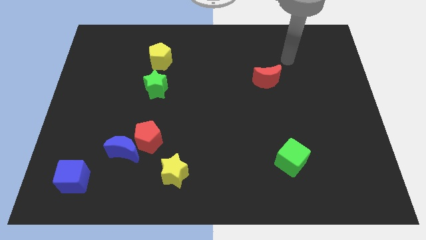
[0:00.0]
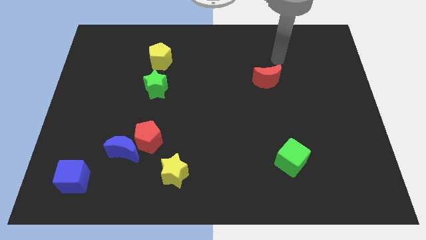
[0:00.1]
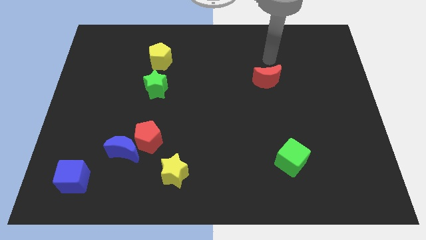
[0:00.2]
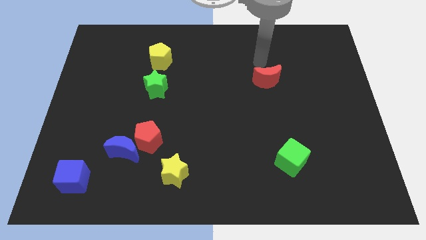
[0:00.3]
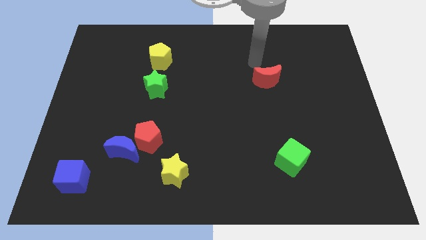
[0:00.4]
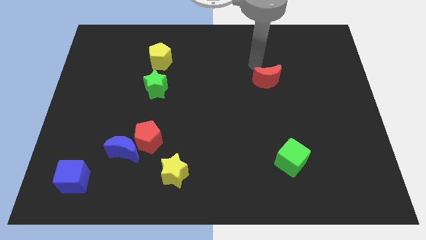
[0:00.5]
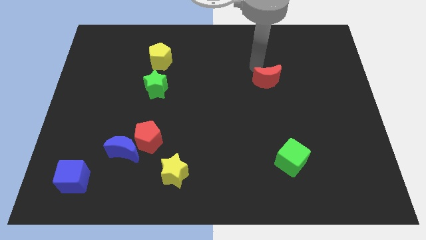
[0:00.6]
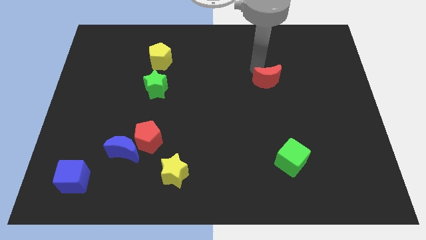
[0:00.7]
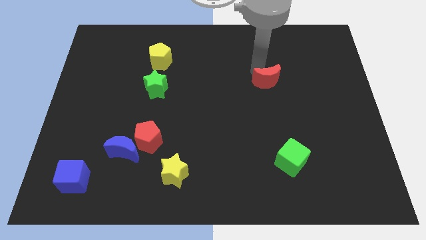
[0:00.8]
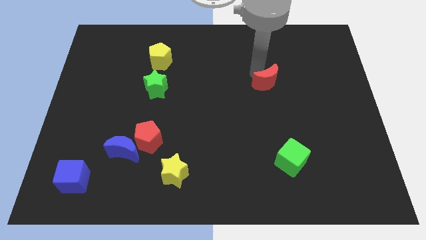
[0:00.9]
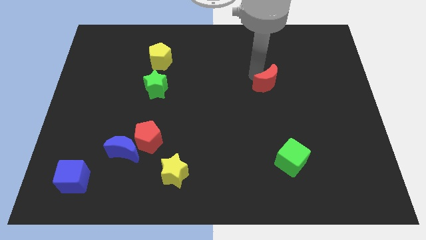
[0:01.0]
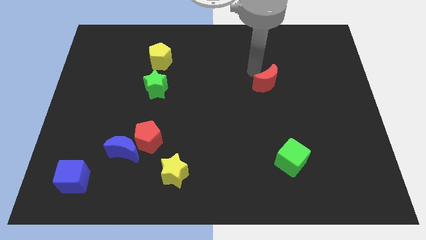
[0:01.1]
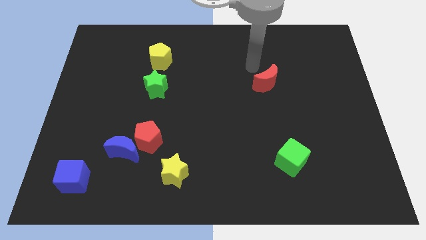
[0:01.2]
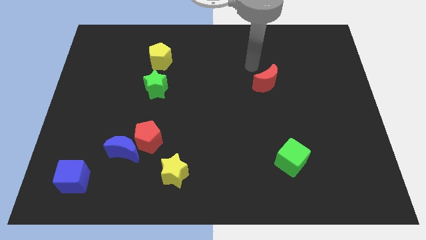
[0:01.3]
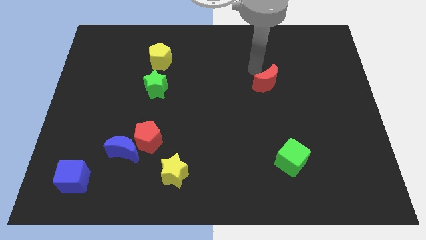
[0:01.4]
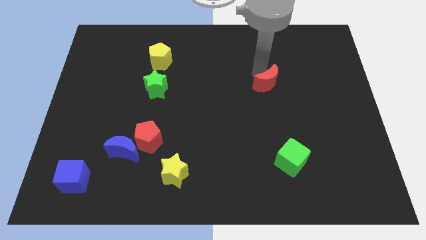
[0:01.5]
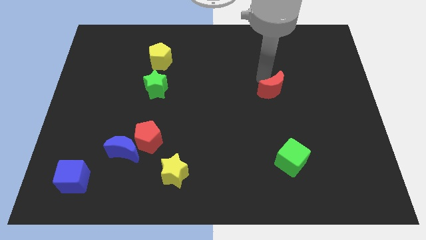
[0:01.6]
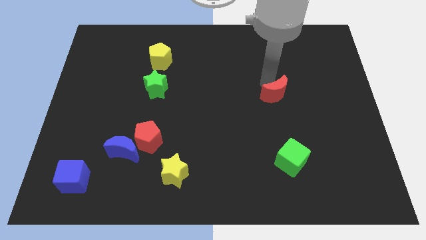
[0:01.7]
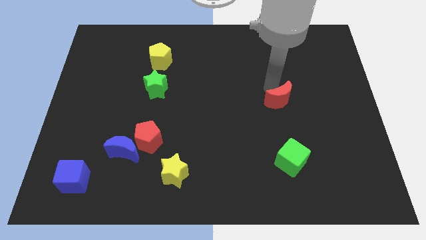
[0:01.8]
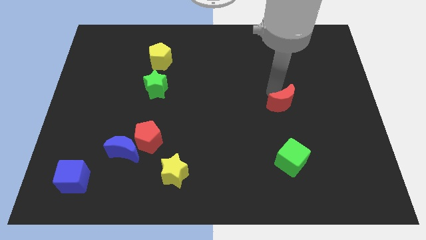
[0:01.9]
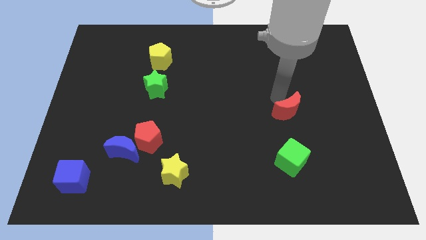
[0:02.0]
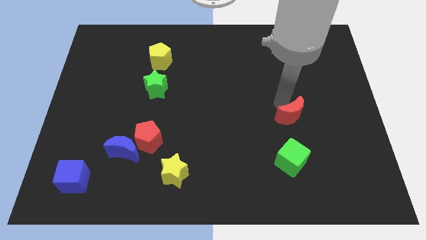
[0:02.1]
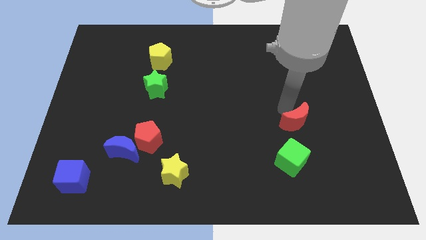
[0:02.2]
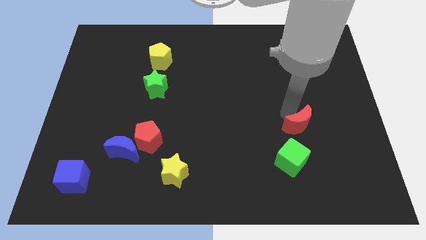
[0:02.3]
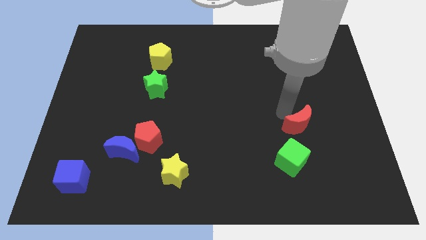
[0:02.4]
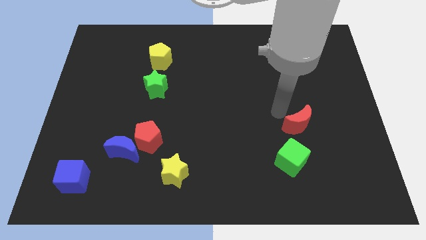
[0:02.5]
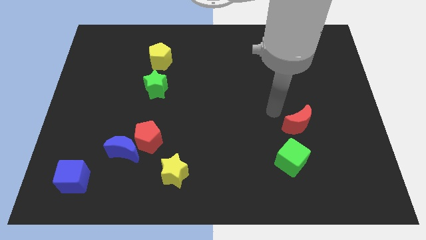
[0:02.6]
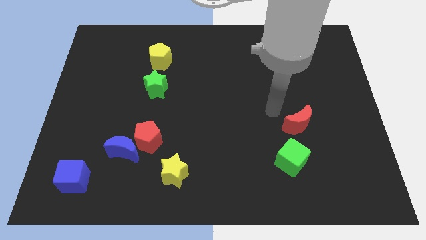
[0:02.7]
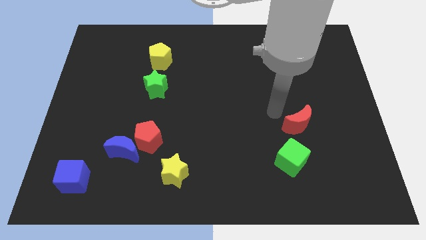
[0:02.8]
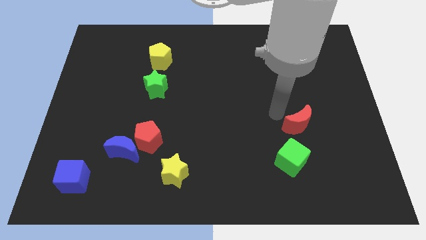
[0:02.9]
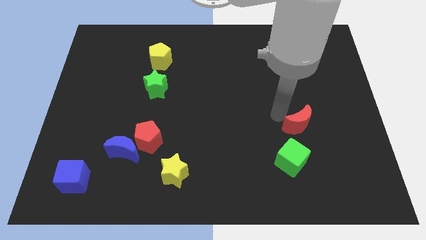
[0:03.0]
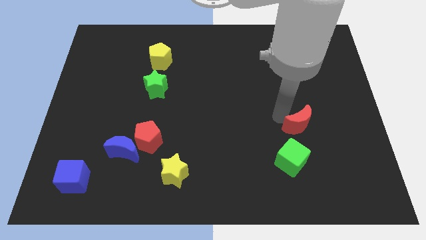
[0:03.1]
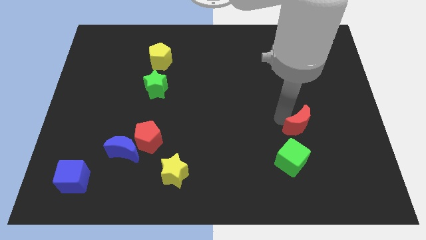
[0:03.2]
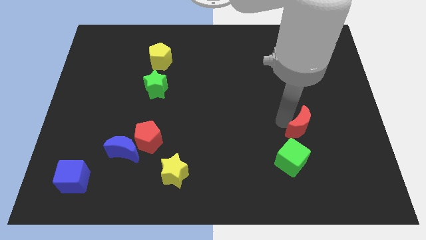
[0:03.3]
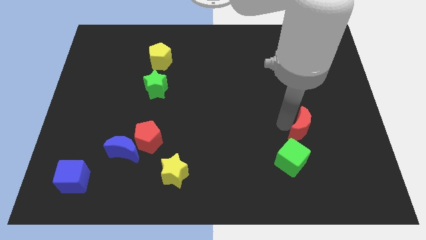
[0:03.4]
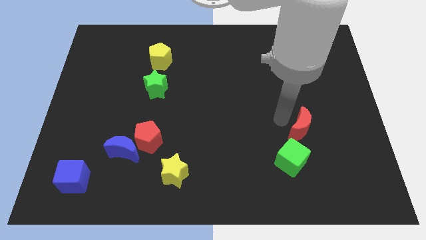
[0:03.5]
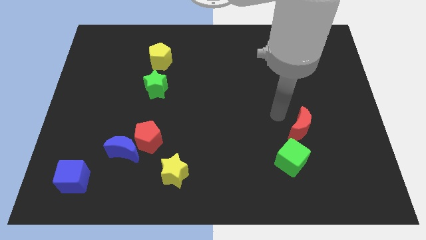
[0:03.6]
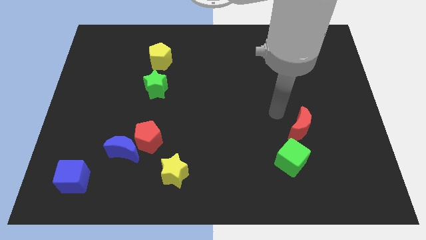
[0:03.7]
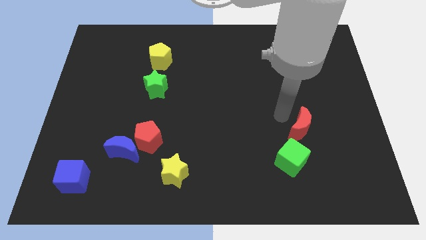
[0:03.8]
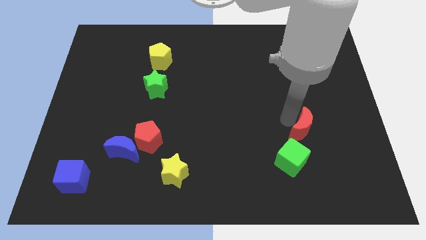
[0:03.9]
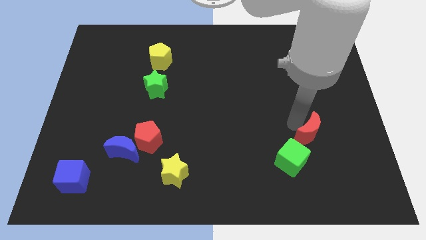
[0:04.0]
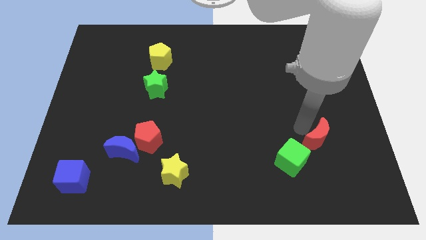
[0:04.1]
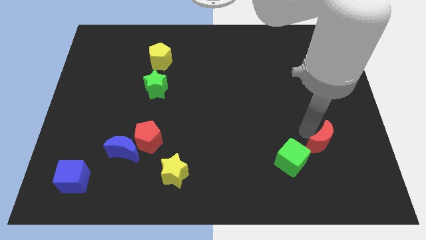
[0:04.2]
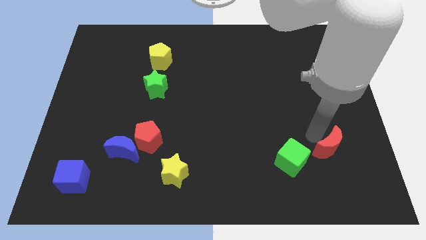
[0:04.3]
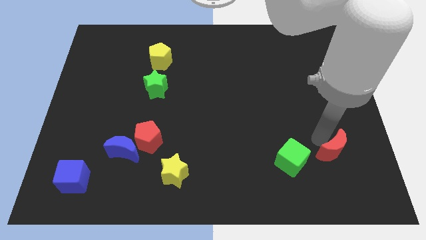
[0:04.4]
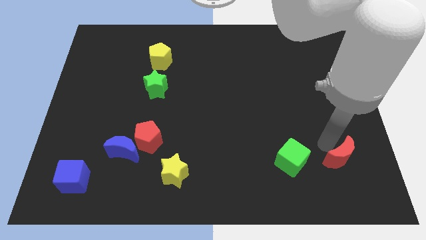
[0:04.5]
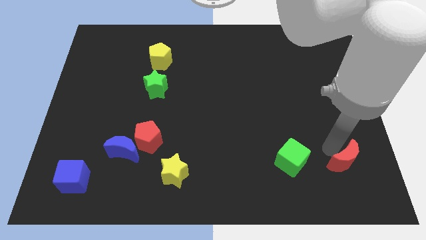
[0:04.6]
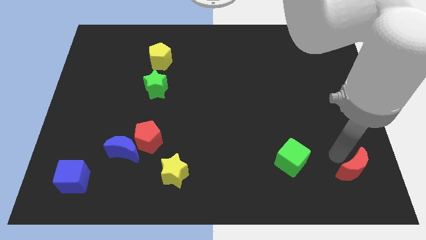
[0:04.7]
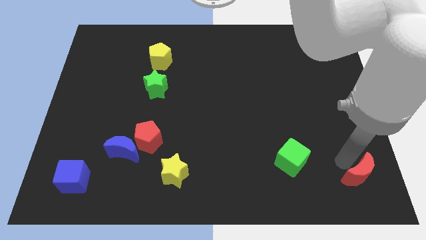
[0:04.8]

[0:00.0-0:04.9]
slide the red moon to the bottom right corner

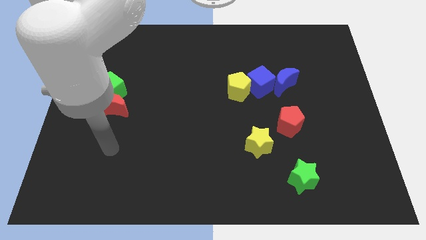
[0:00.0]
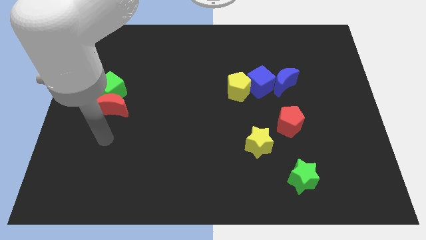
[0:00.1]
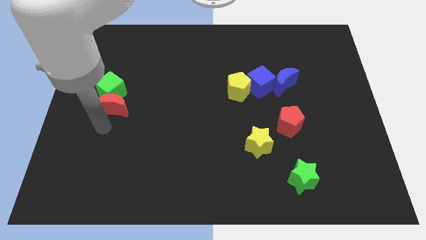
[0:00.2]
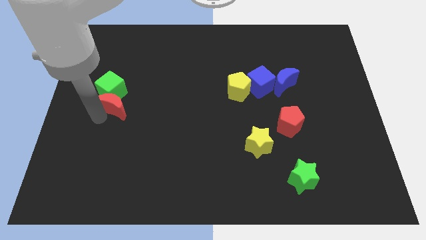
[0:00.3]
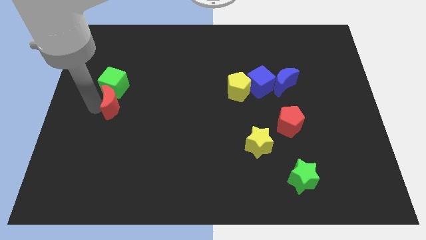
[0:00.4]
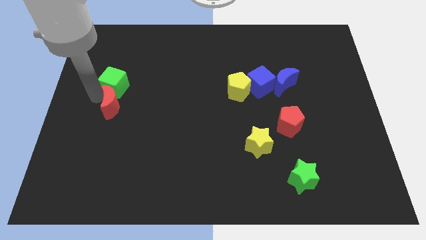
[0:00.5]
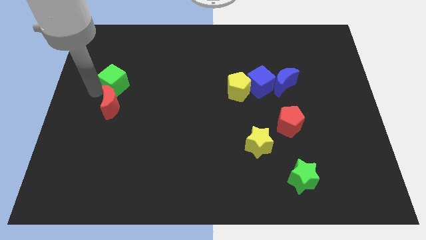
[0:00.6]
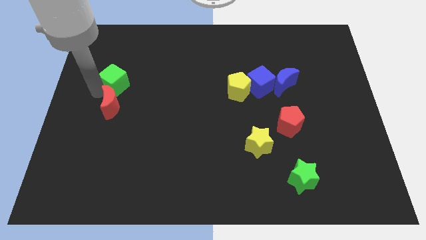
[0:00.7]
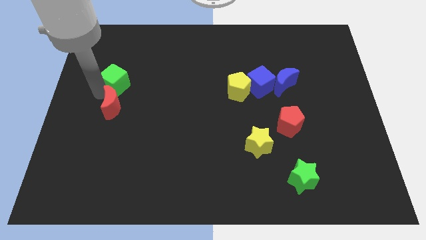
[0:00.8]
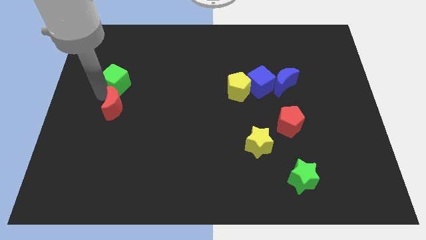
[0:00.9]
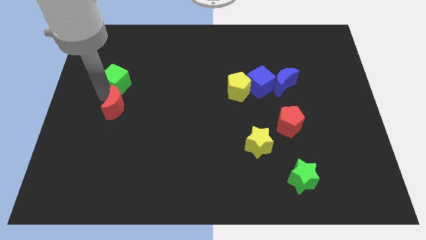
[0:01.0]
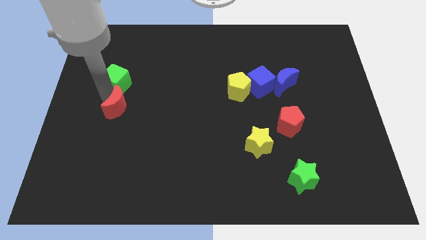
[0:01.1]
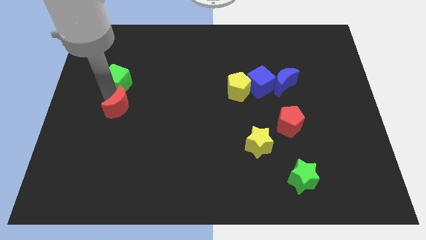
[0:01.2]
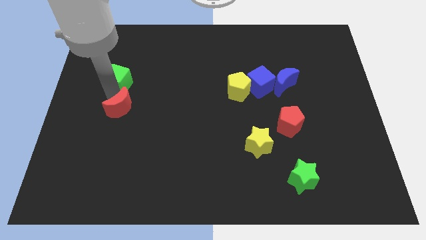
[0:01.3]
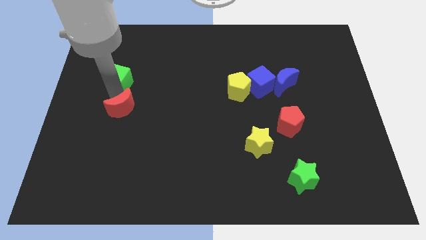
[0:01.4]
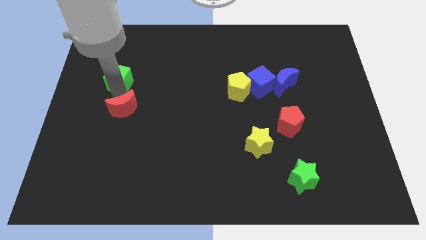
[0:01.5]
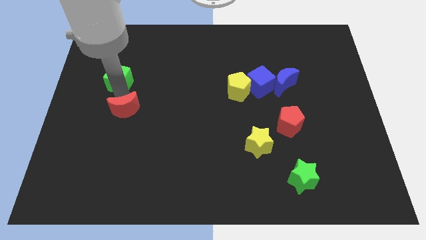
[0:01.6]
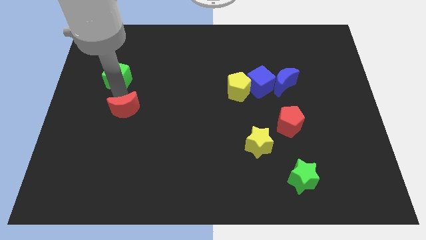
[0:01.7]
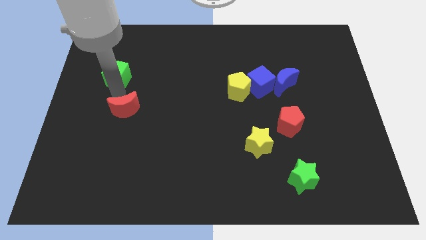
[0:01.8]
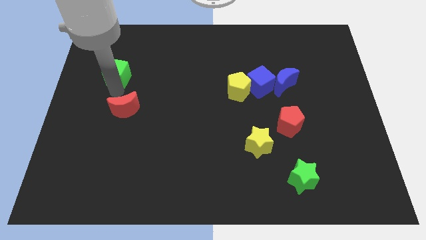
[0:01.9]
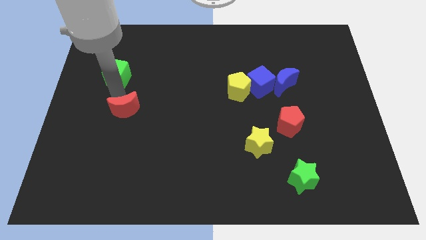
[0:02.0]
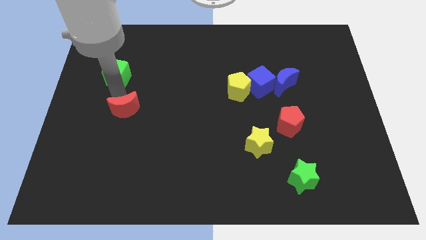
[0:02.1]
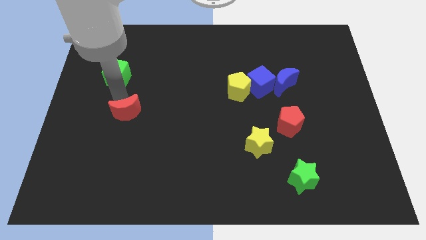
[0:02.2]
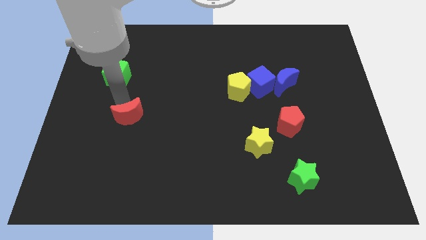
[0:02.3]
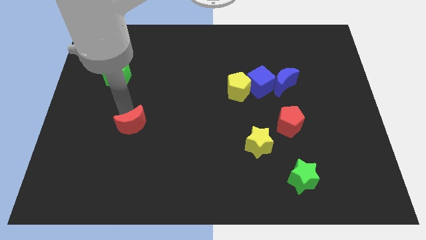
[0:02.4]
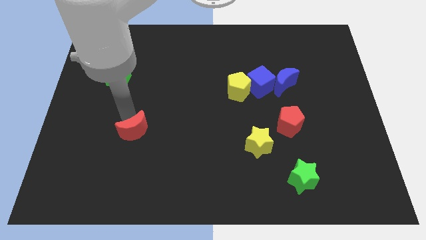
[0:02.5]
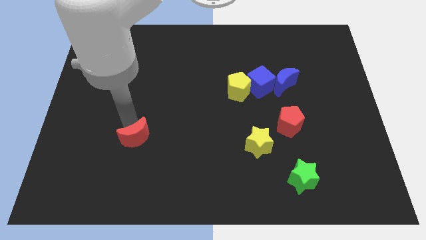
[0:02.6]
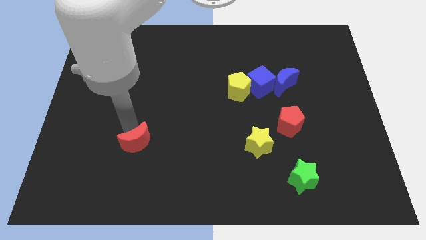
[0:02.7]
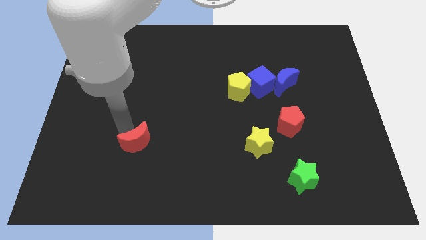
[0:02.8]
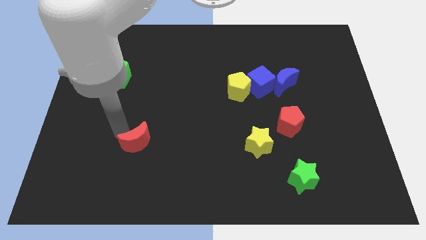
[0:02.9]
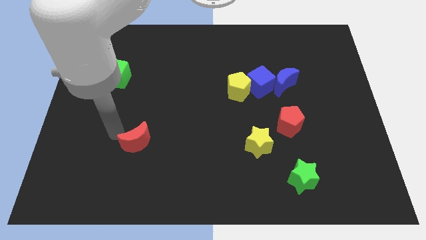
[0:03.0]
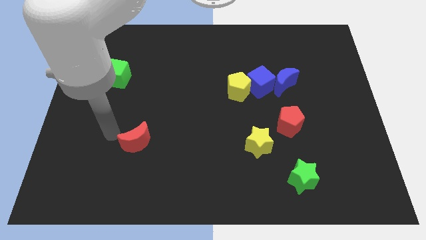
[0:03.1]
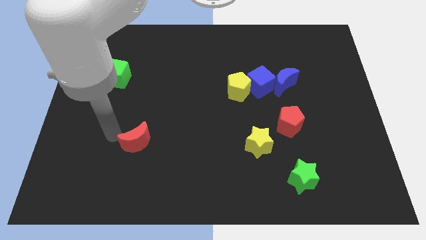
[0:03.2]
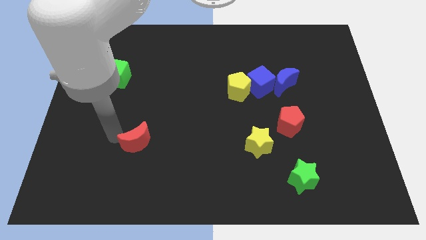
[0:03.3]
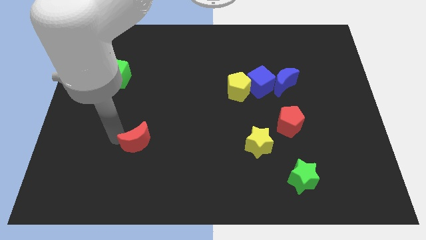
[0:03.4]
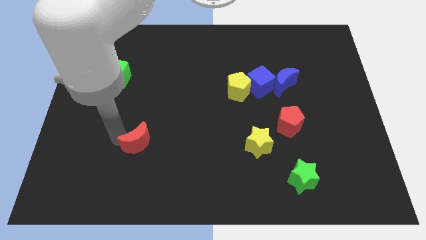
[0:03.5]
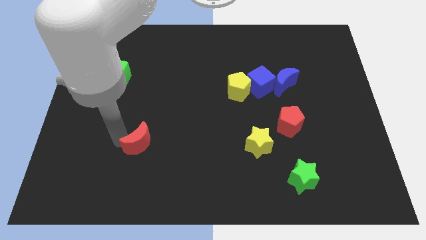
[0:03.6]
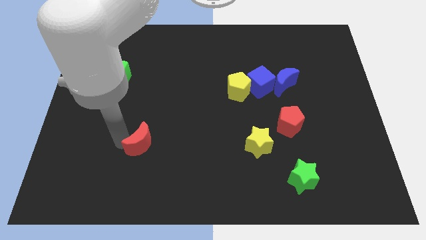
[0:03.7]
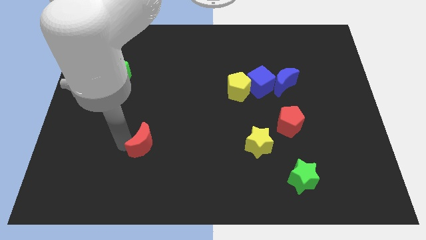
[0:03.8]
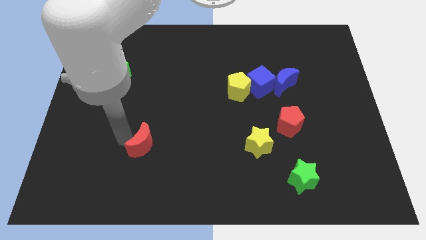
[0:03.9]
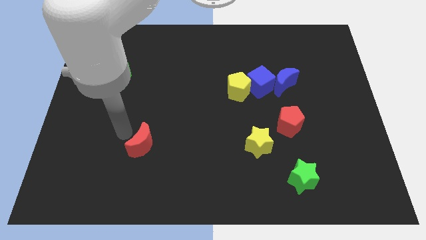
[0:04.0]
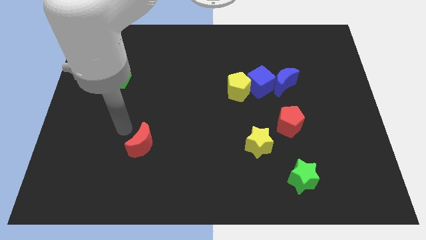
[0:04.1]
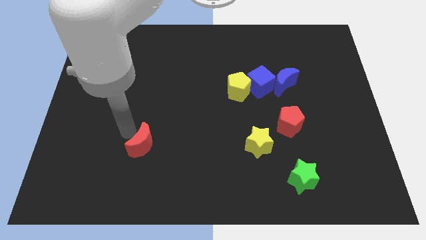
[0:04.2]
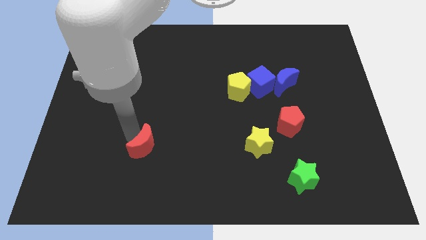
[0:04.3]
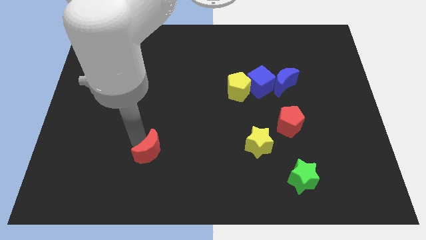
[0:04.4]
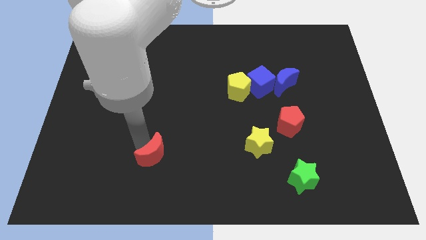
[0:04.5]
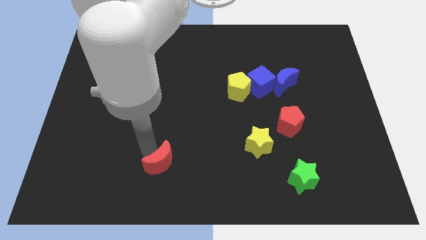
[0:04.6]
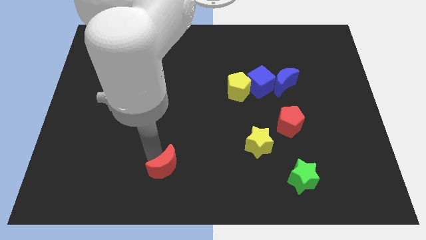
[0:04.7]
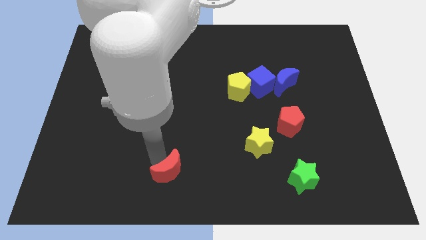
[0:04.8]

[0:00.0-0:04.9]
move the red moon to the bottom side
